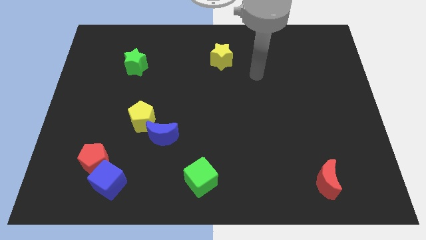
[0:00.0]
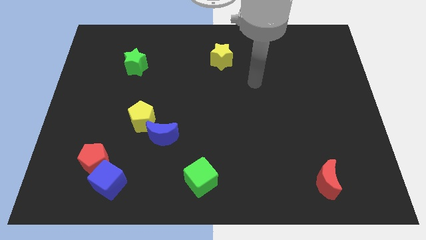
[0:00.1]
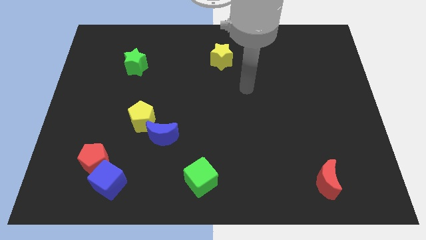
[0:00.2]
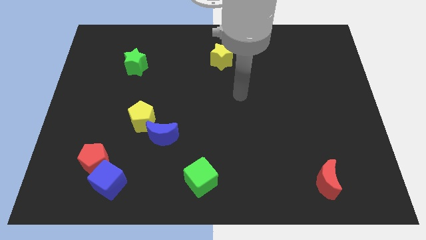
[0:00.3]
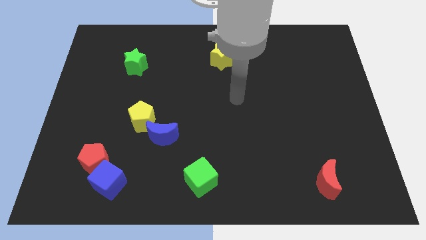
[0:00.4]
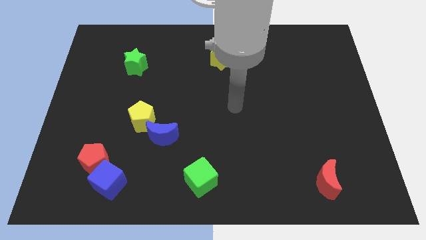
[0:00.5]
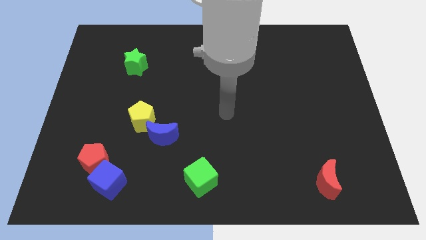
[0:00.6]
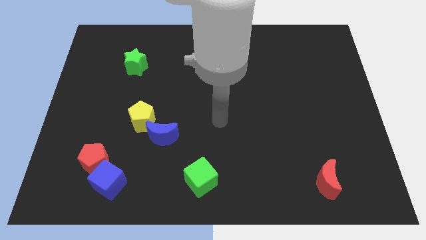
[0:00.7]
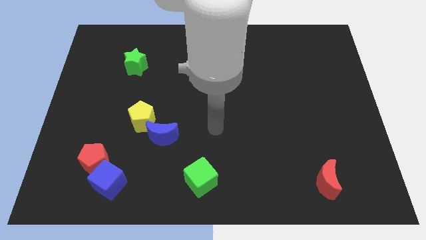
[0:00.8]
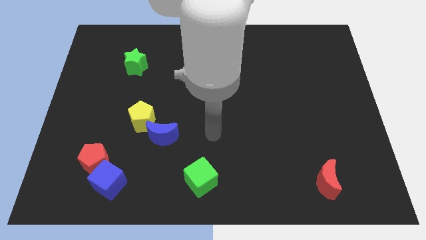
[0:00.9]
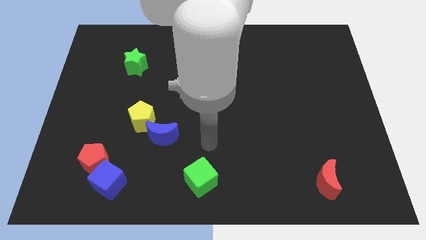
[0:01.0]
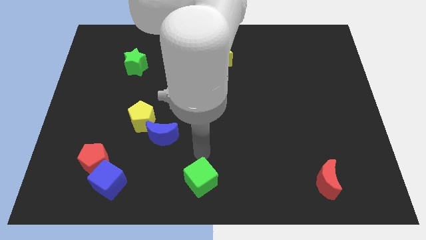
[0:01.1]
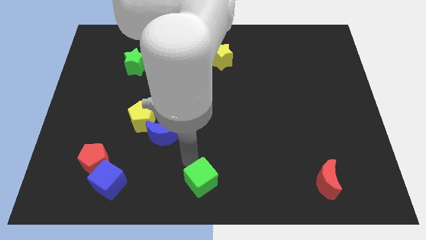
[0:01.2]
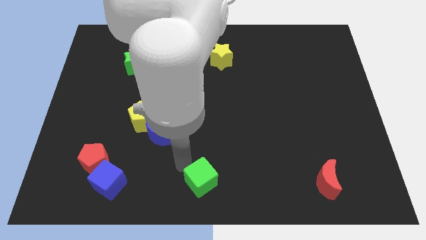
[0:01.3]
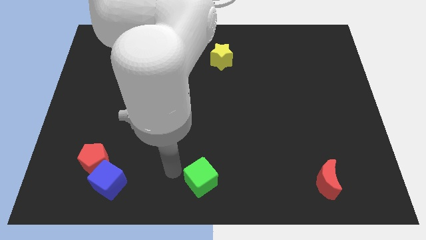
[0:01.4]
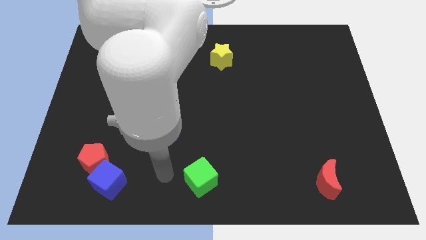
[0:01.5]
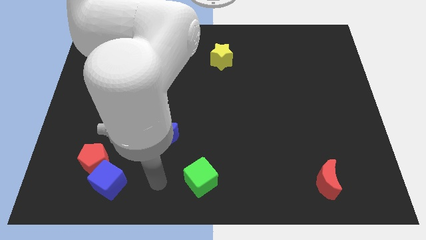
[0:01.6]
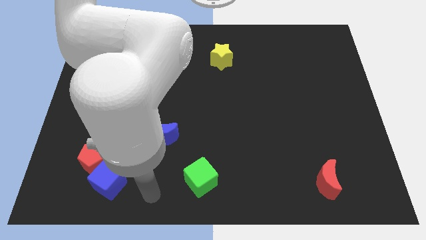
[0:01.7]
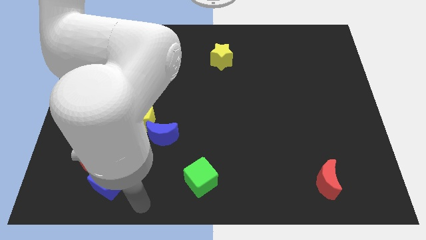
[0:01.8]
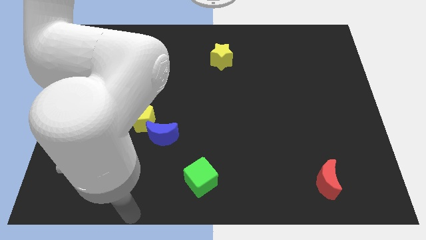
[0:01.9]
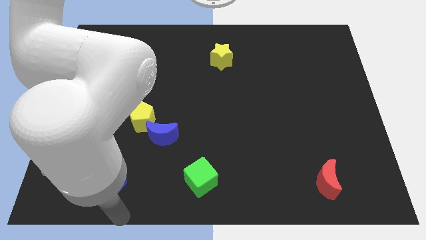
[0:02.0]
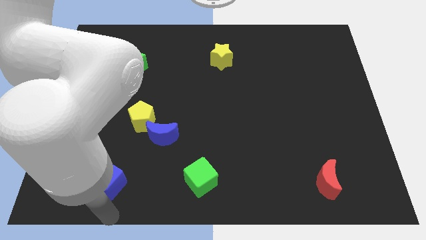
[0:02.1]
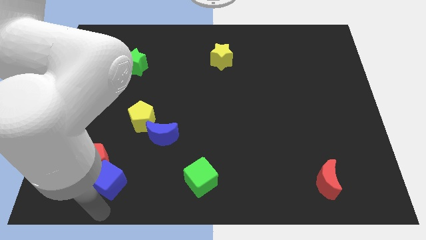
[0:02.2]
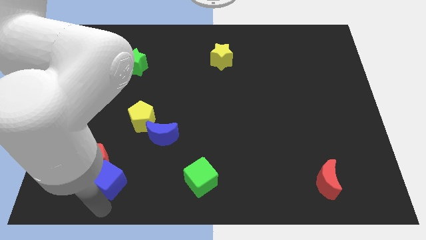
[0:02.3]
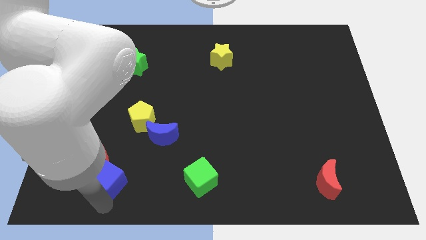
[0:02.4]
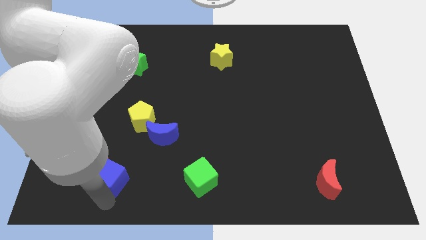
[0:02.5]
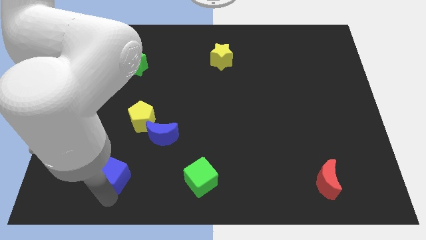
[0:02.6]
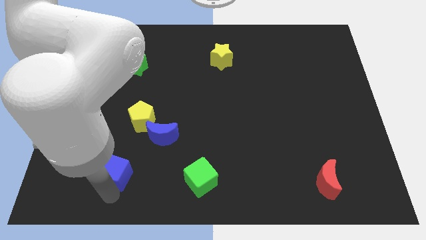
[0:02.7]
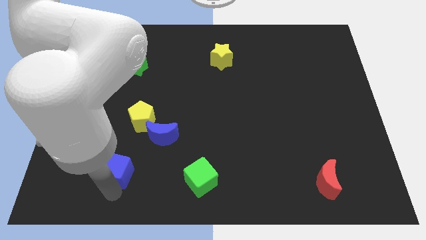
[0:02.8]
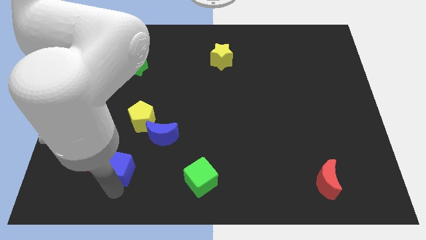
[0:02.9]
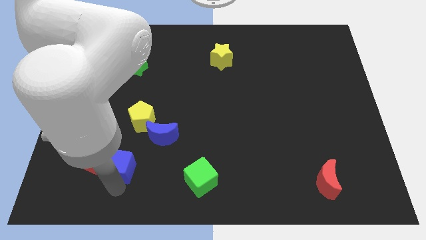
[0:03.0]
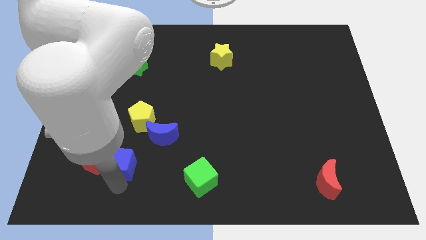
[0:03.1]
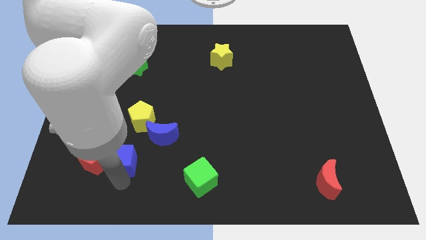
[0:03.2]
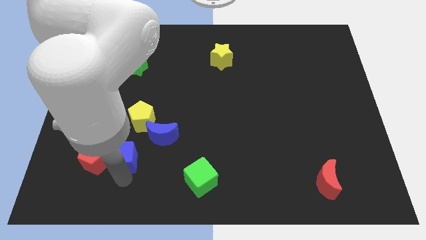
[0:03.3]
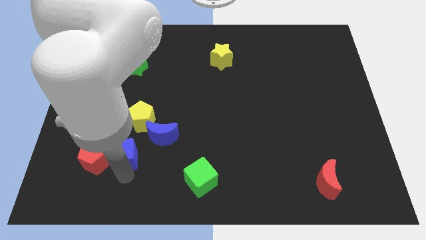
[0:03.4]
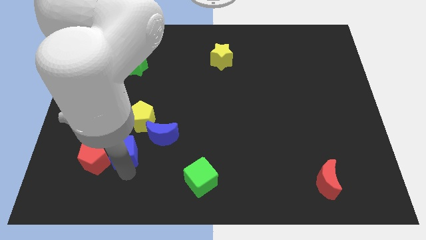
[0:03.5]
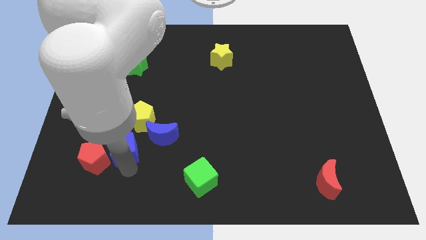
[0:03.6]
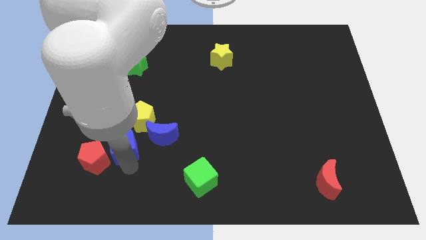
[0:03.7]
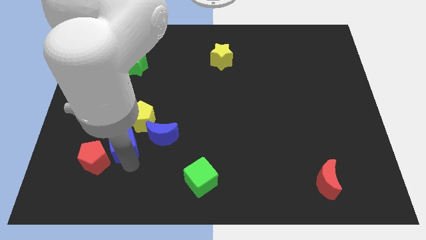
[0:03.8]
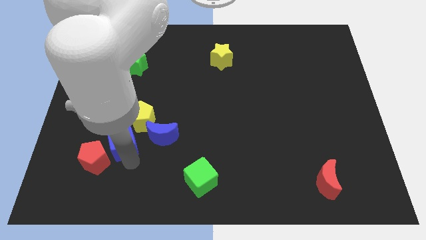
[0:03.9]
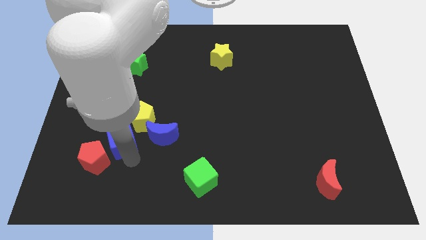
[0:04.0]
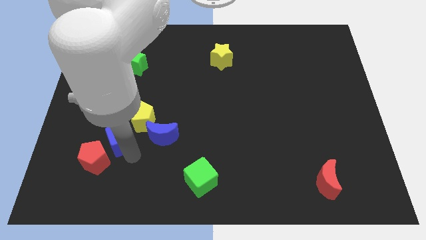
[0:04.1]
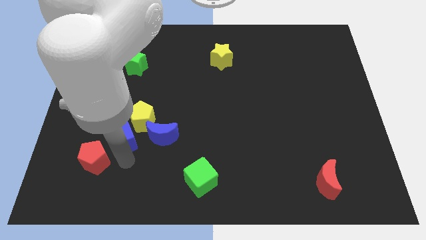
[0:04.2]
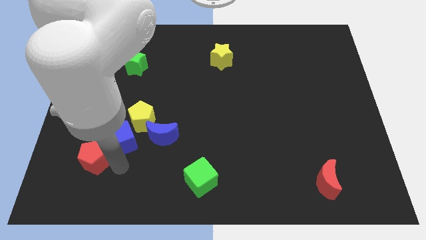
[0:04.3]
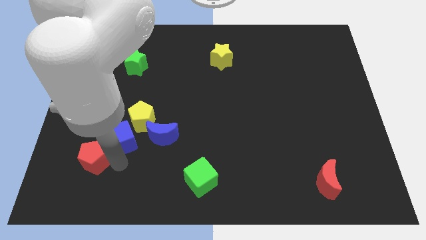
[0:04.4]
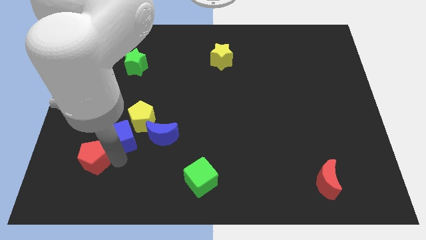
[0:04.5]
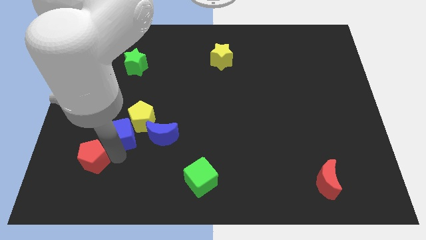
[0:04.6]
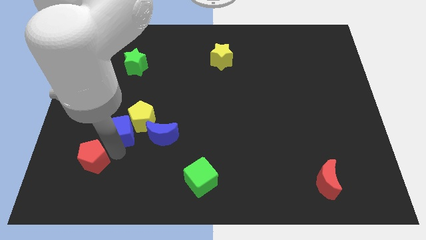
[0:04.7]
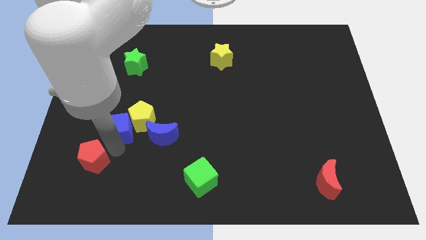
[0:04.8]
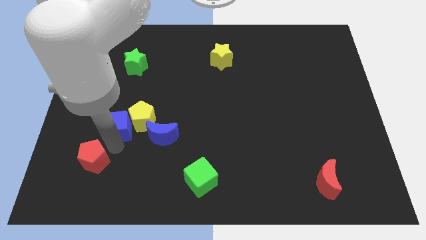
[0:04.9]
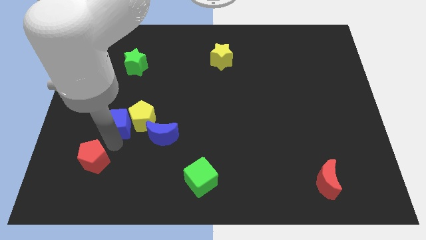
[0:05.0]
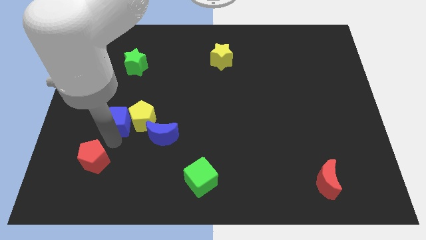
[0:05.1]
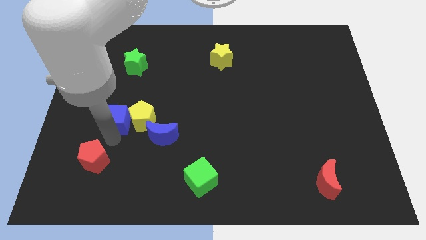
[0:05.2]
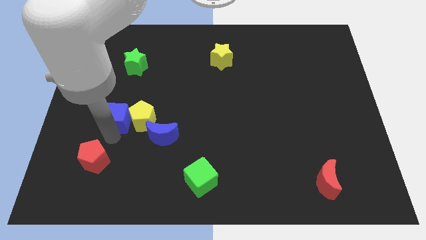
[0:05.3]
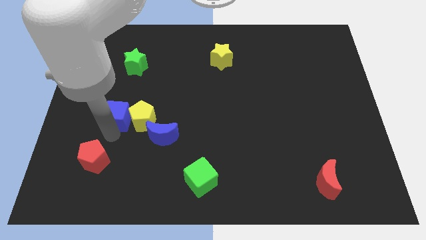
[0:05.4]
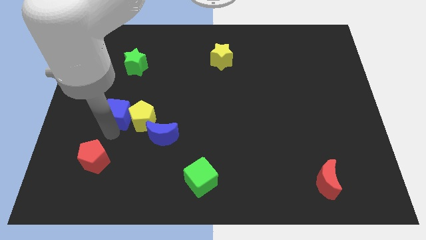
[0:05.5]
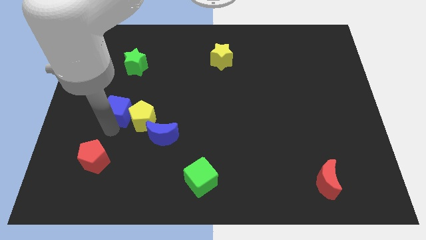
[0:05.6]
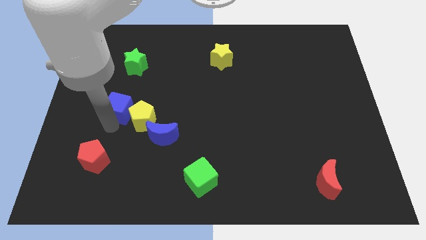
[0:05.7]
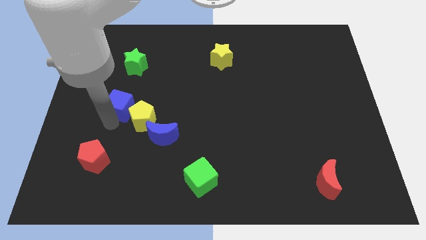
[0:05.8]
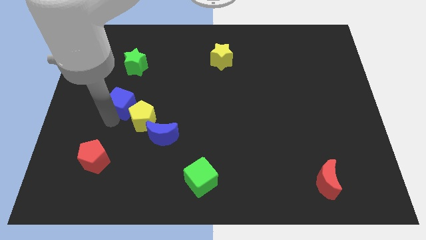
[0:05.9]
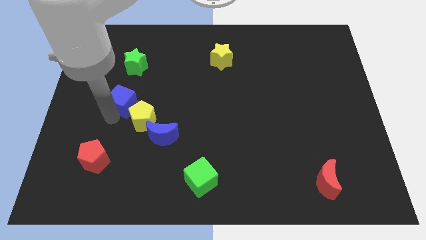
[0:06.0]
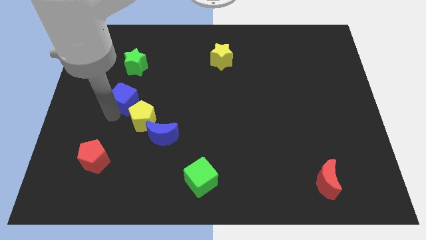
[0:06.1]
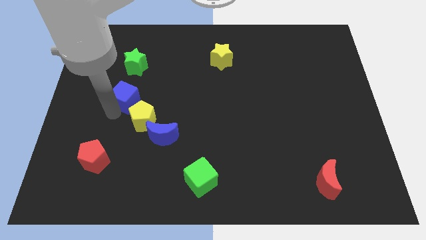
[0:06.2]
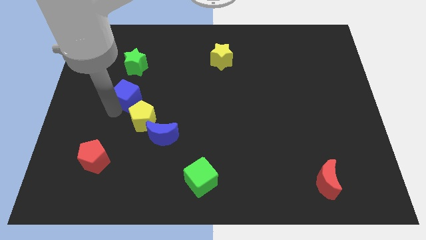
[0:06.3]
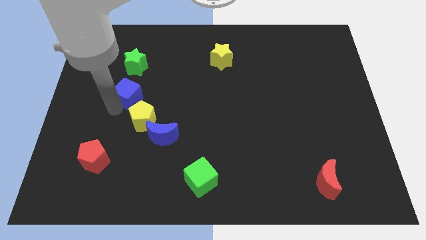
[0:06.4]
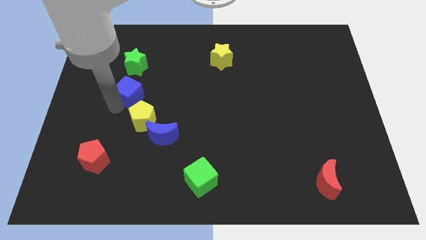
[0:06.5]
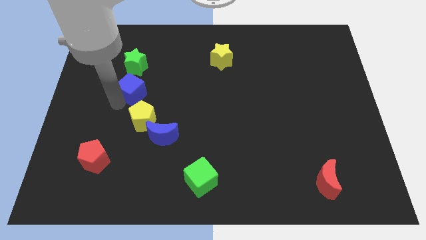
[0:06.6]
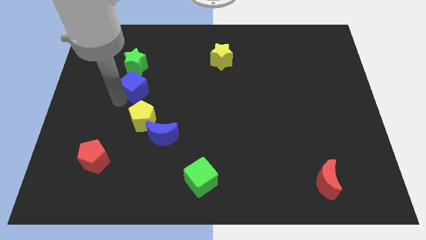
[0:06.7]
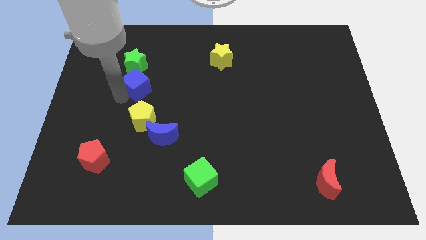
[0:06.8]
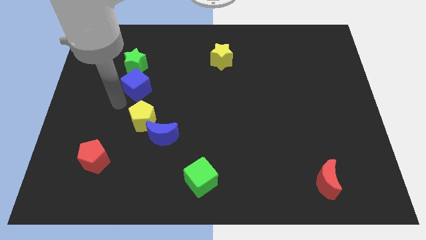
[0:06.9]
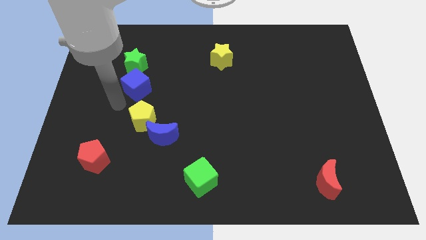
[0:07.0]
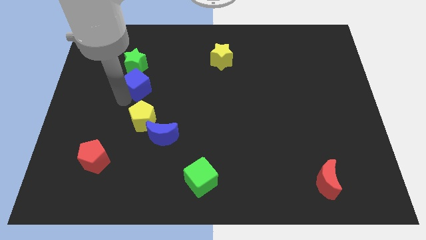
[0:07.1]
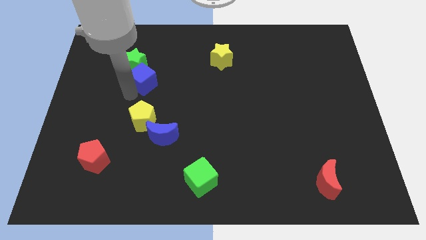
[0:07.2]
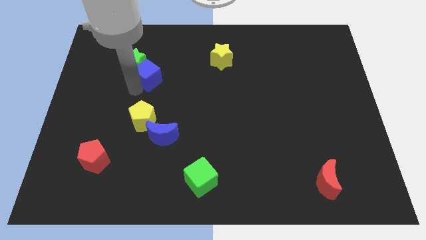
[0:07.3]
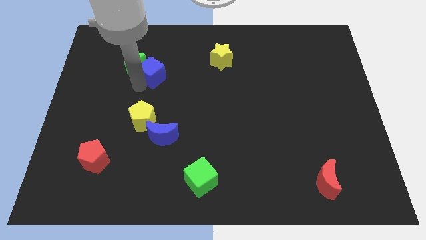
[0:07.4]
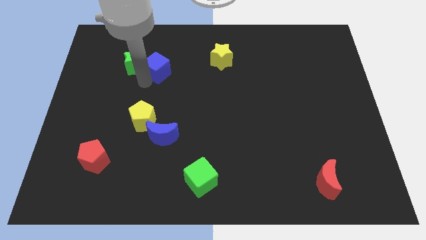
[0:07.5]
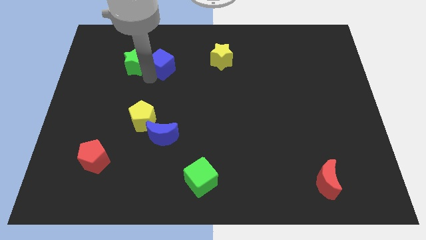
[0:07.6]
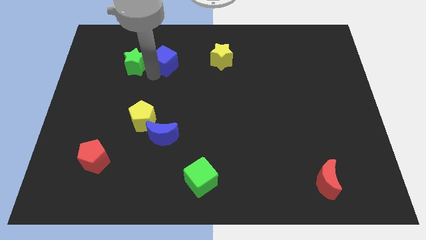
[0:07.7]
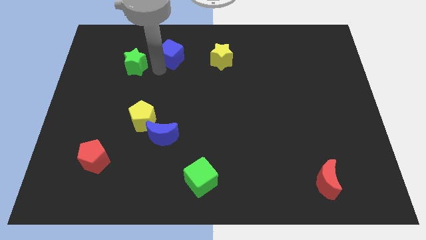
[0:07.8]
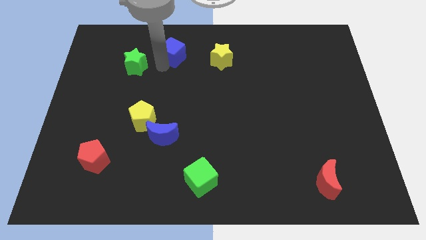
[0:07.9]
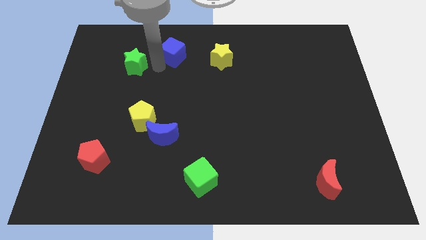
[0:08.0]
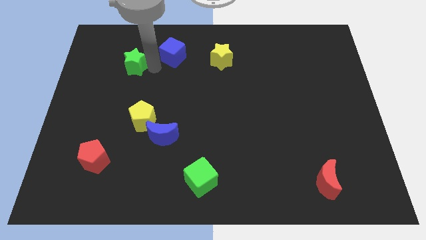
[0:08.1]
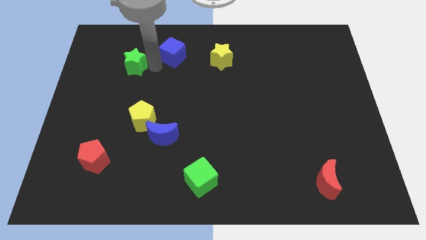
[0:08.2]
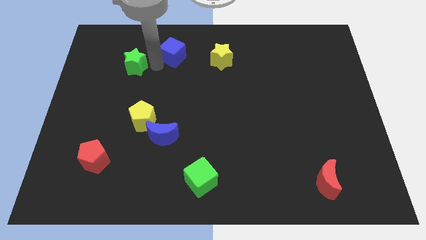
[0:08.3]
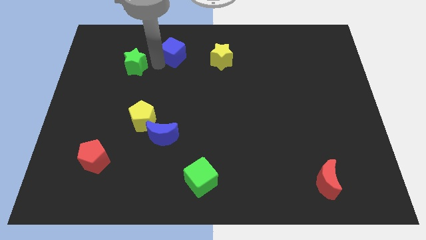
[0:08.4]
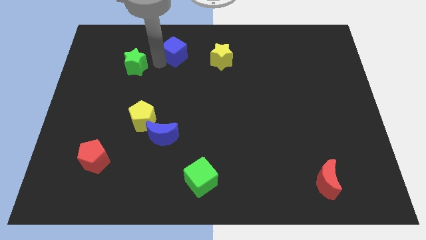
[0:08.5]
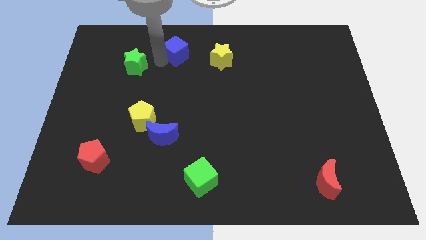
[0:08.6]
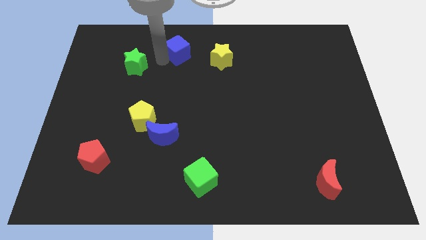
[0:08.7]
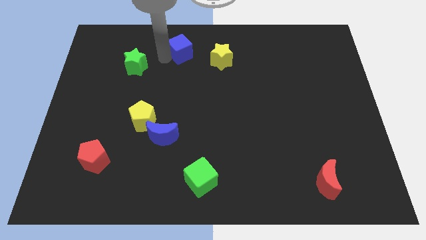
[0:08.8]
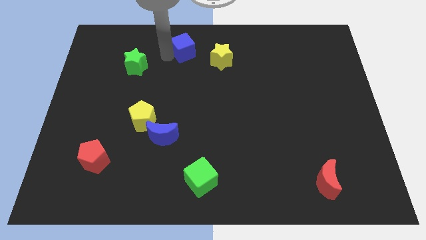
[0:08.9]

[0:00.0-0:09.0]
slide the blue cube to the top side
